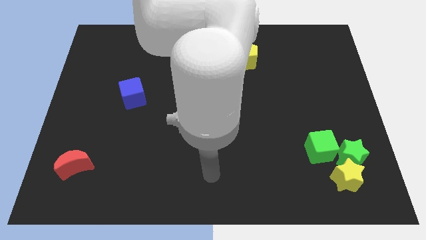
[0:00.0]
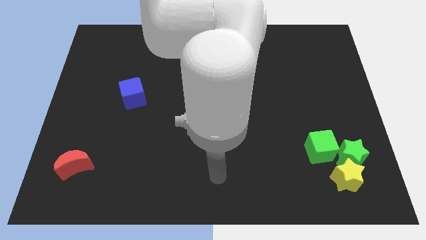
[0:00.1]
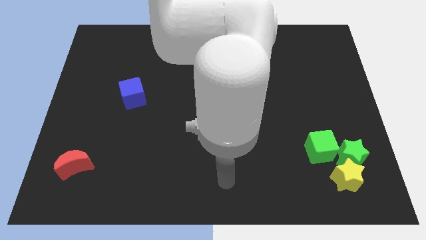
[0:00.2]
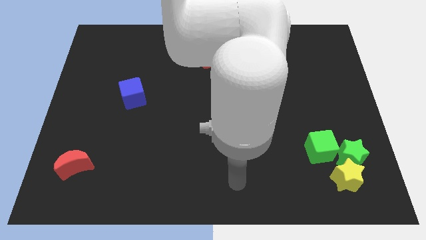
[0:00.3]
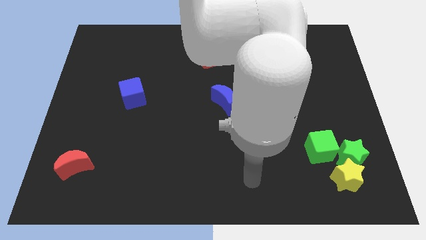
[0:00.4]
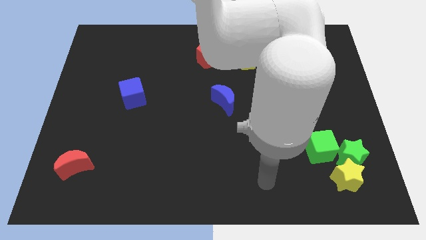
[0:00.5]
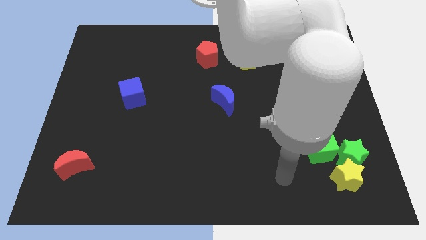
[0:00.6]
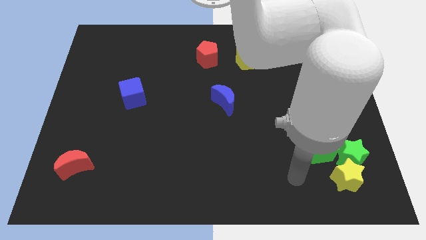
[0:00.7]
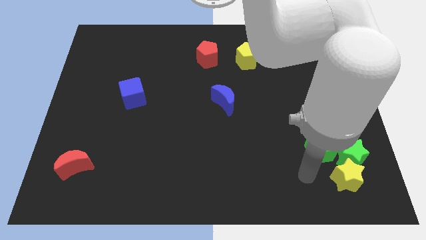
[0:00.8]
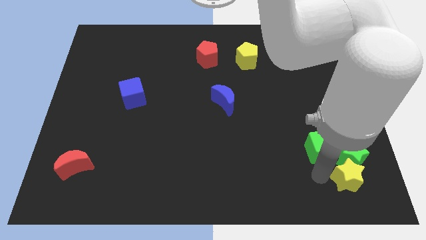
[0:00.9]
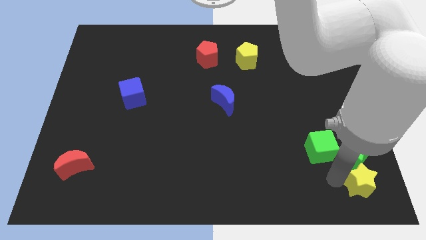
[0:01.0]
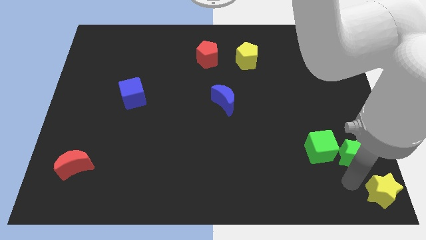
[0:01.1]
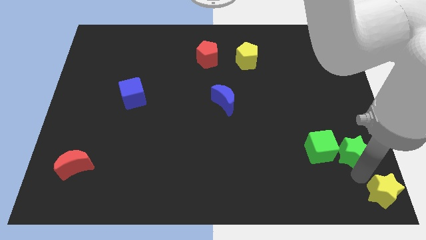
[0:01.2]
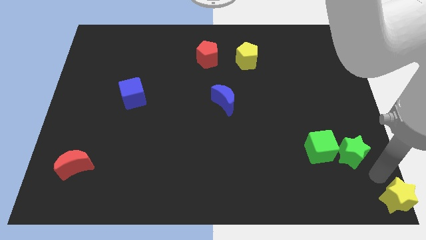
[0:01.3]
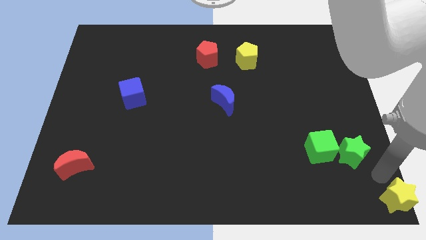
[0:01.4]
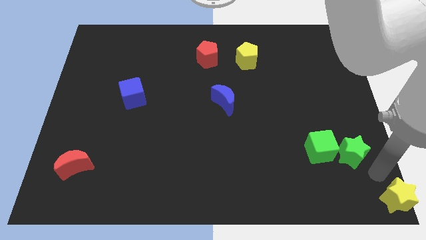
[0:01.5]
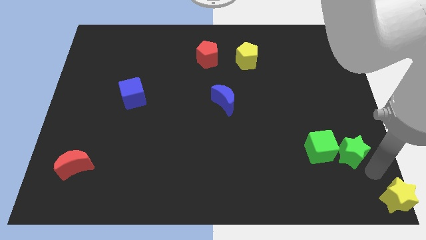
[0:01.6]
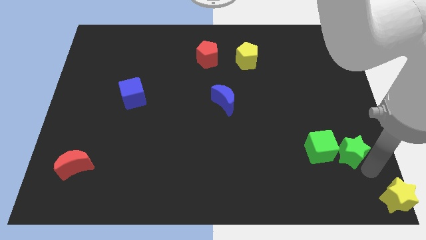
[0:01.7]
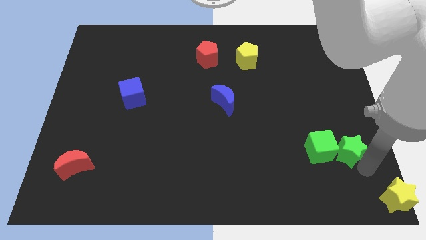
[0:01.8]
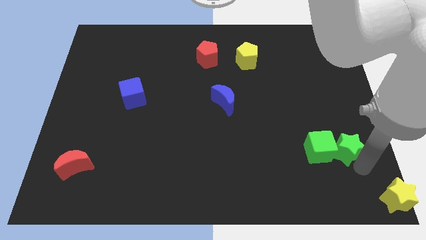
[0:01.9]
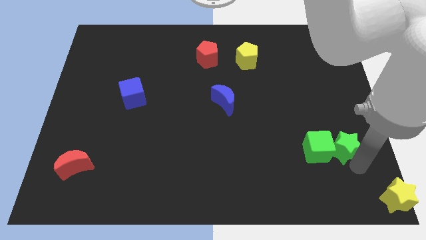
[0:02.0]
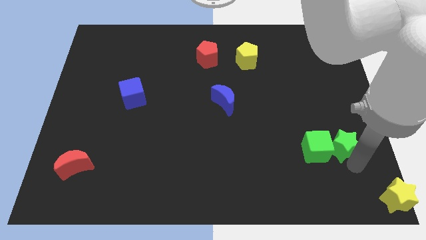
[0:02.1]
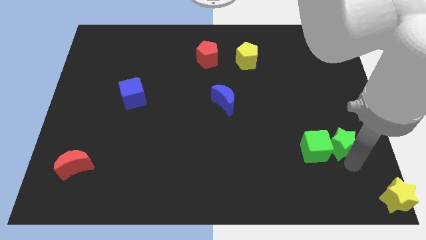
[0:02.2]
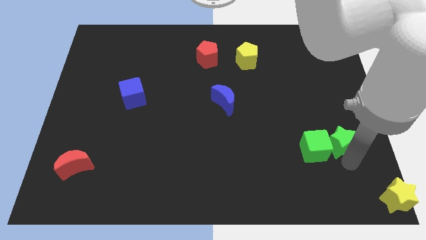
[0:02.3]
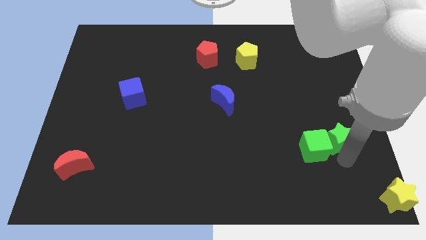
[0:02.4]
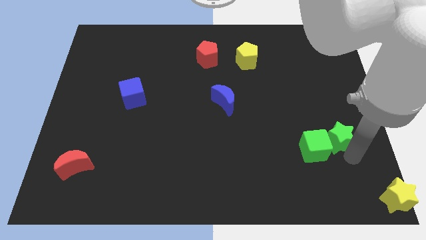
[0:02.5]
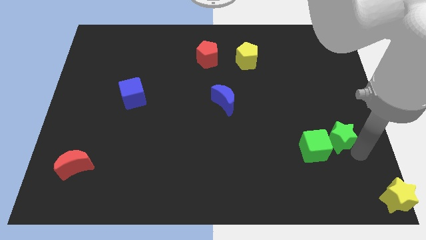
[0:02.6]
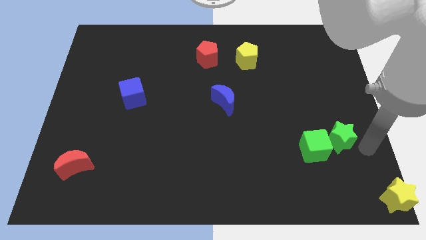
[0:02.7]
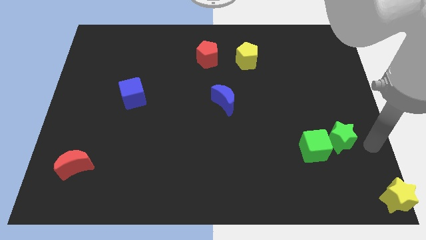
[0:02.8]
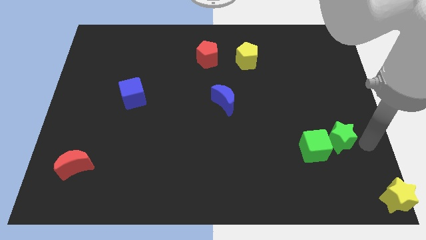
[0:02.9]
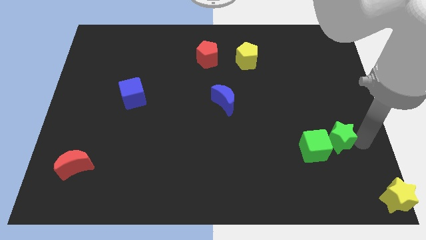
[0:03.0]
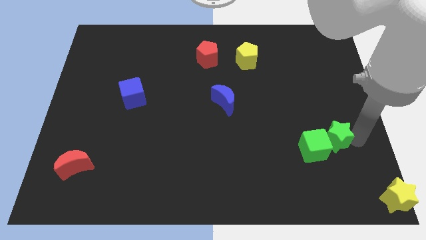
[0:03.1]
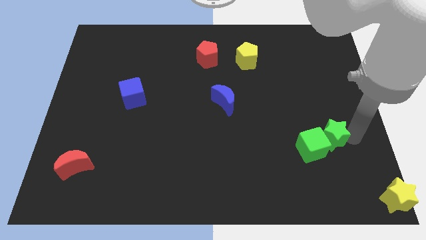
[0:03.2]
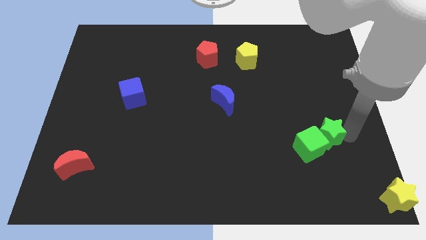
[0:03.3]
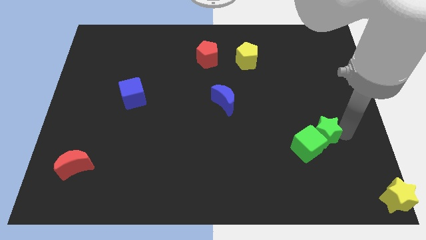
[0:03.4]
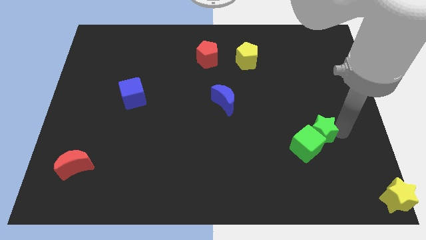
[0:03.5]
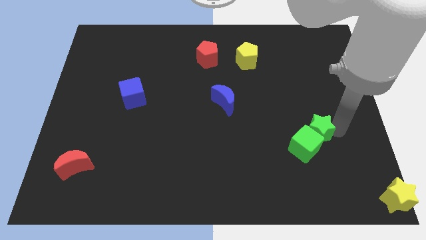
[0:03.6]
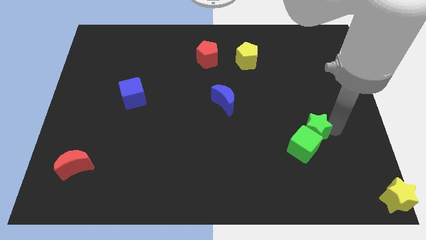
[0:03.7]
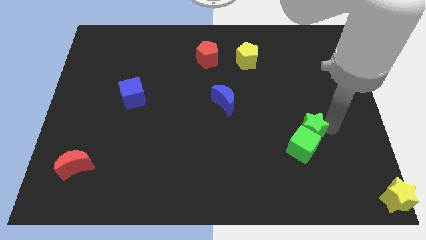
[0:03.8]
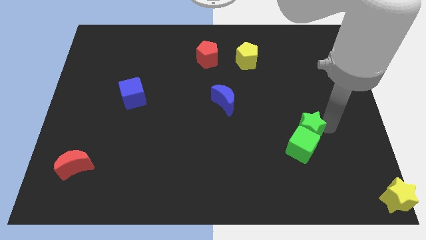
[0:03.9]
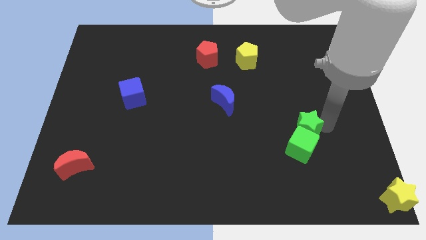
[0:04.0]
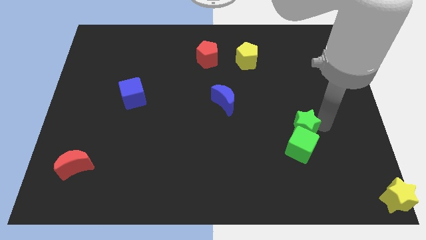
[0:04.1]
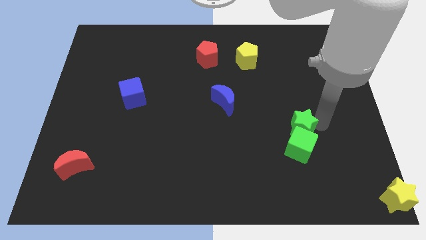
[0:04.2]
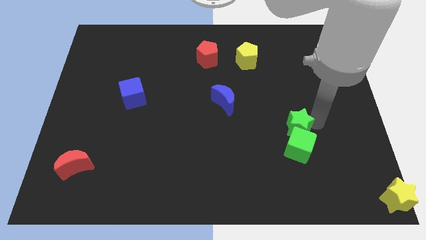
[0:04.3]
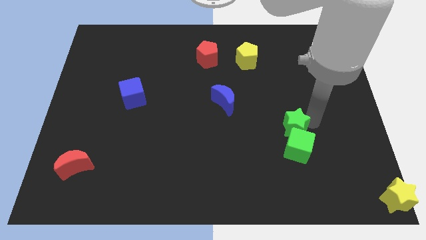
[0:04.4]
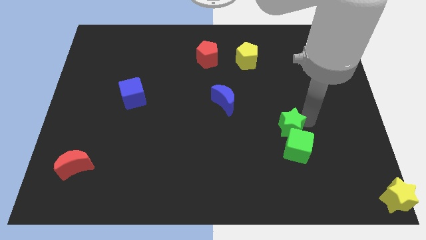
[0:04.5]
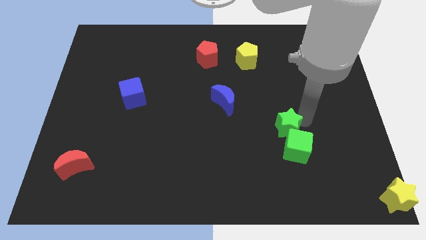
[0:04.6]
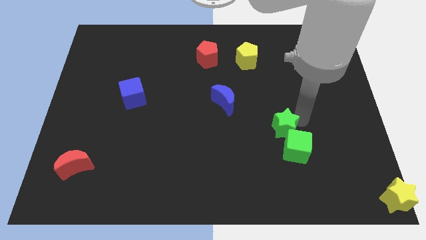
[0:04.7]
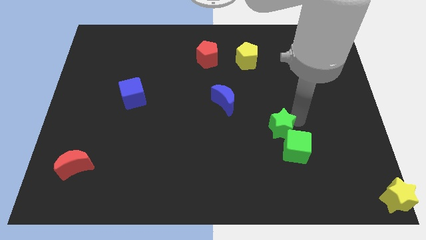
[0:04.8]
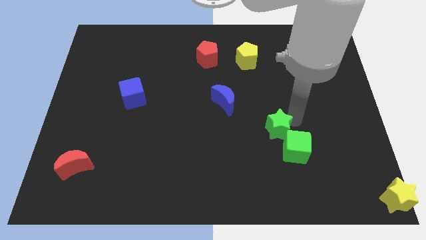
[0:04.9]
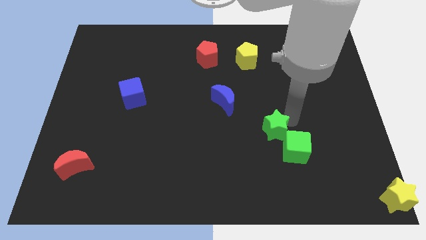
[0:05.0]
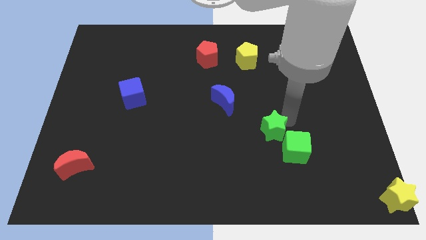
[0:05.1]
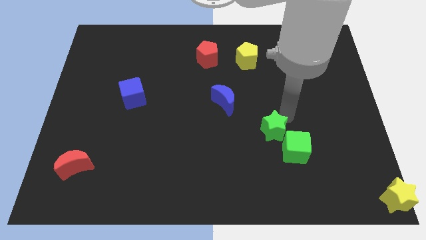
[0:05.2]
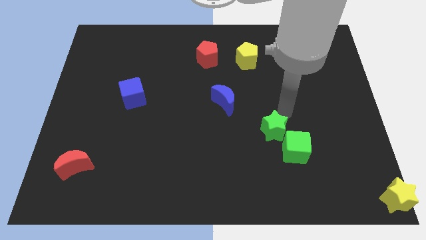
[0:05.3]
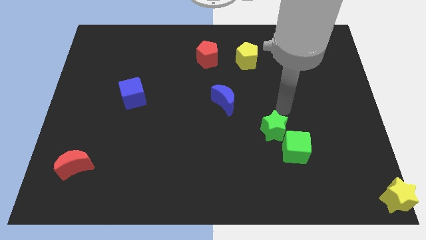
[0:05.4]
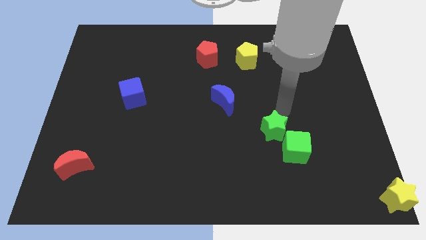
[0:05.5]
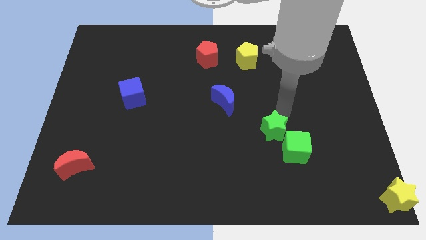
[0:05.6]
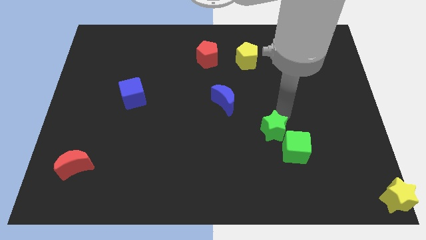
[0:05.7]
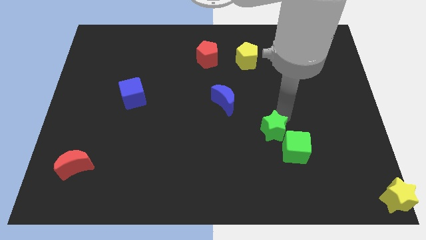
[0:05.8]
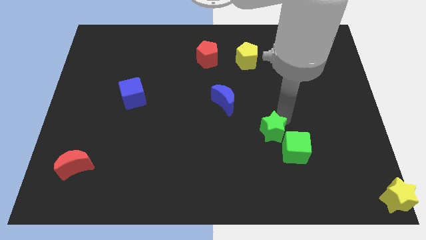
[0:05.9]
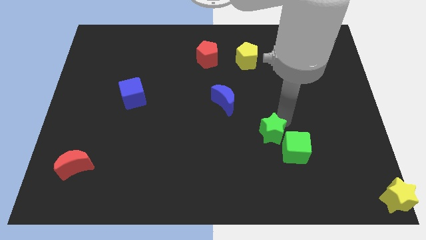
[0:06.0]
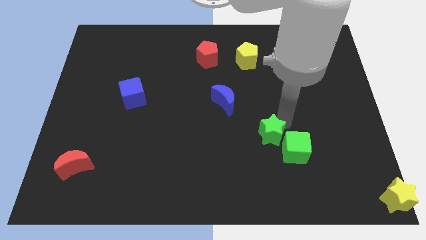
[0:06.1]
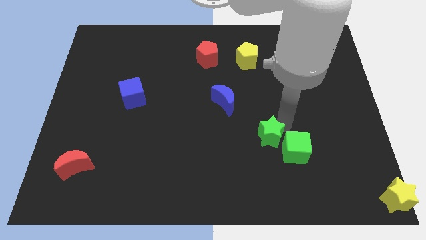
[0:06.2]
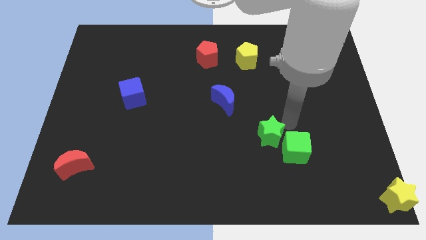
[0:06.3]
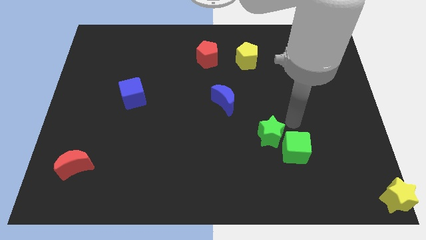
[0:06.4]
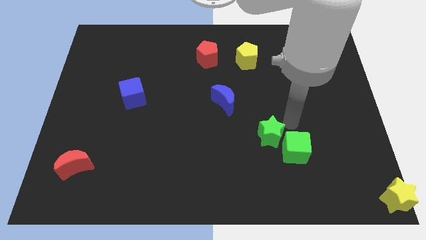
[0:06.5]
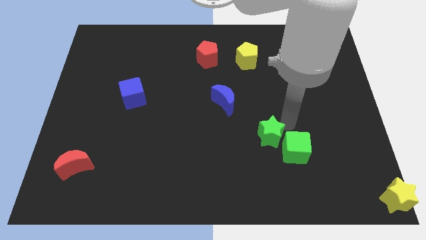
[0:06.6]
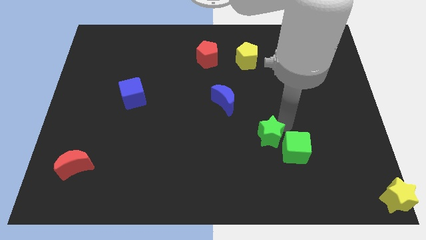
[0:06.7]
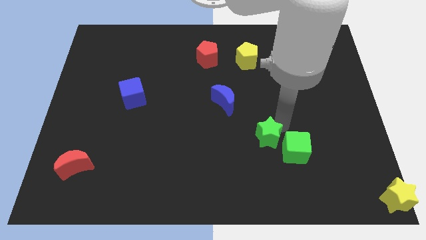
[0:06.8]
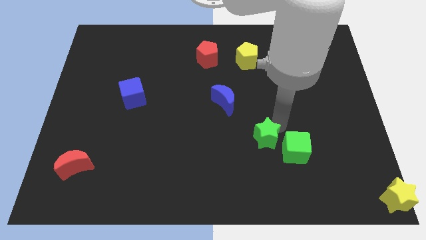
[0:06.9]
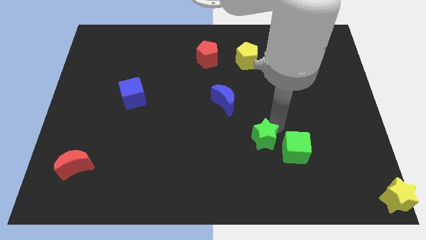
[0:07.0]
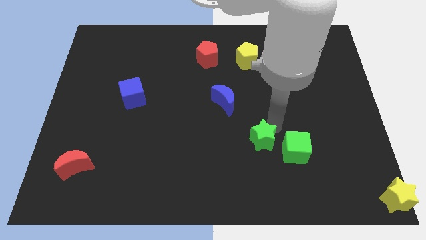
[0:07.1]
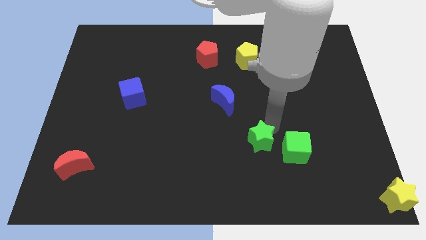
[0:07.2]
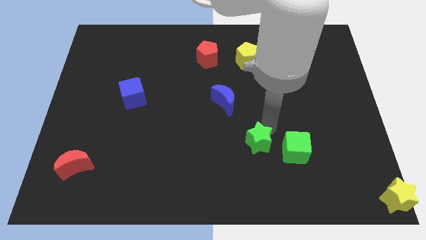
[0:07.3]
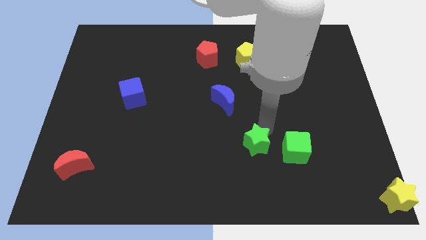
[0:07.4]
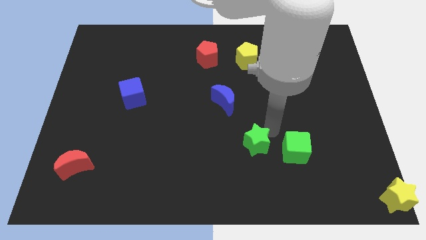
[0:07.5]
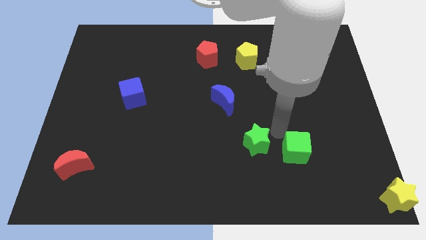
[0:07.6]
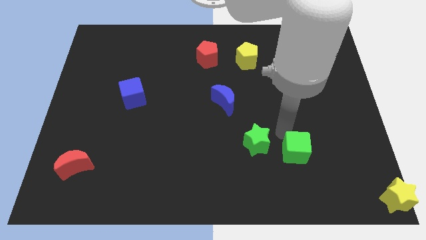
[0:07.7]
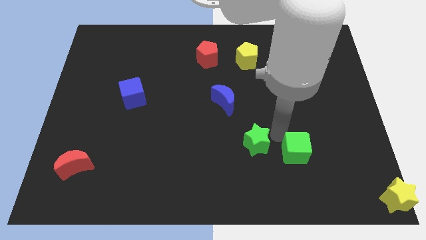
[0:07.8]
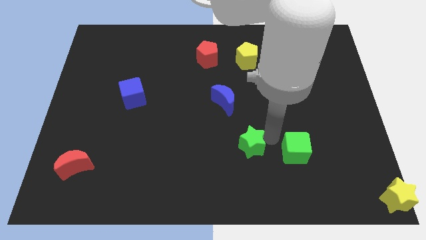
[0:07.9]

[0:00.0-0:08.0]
move the green star left
